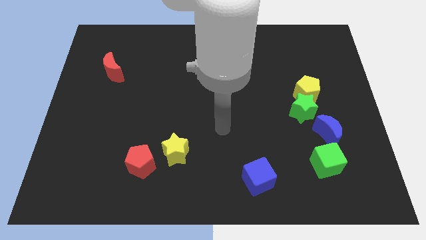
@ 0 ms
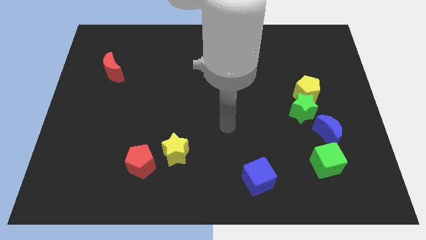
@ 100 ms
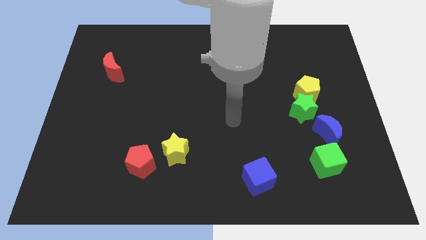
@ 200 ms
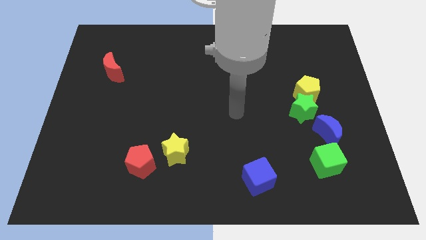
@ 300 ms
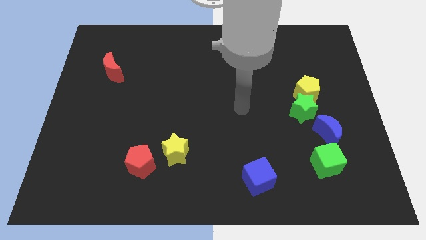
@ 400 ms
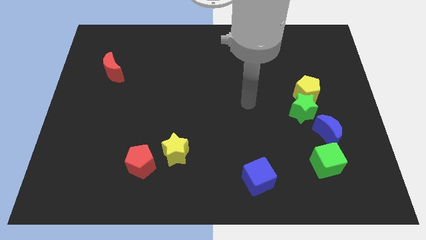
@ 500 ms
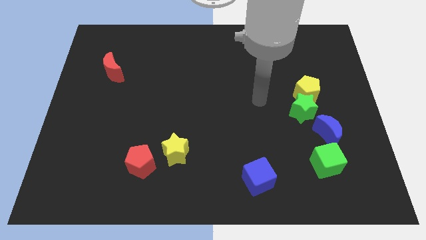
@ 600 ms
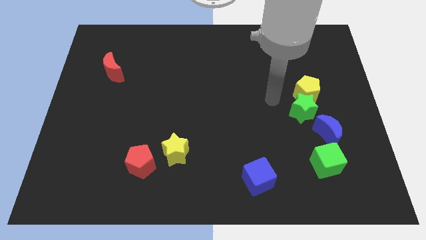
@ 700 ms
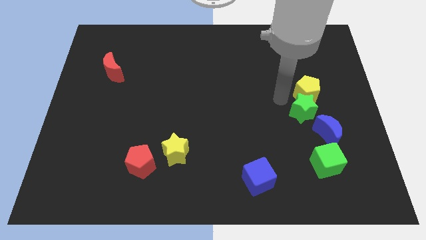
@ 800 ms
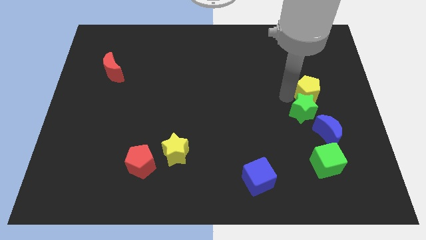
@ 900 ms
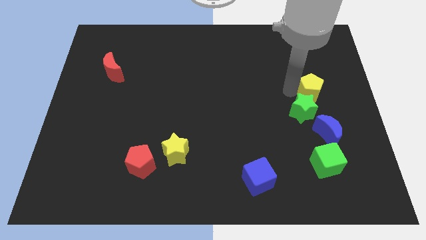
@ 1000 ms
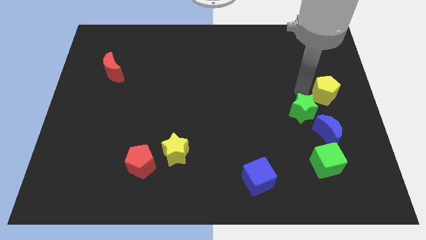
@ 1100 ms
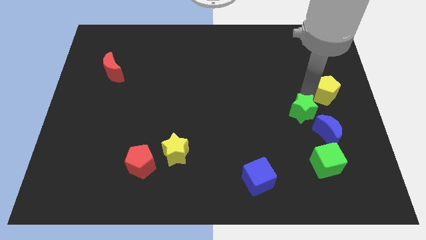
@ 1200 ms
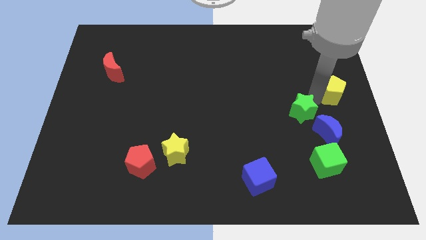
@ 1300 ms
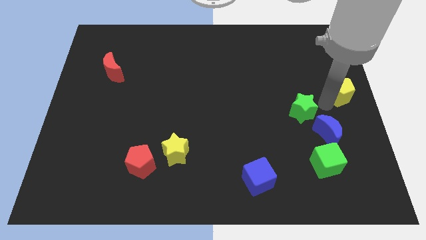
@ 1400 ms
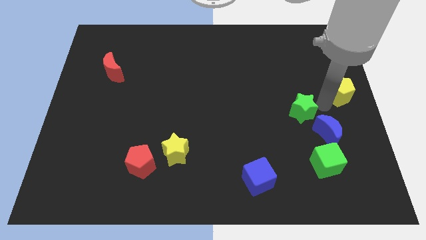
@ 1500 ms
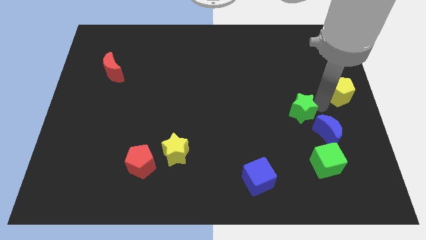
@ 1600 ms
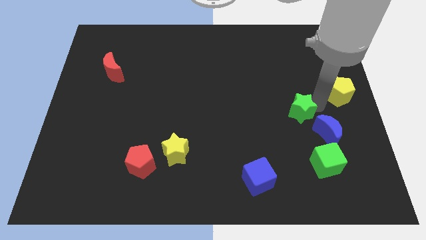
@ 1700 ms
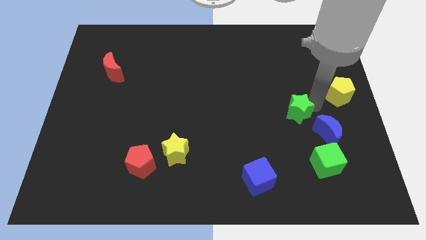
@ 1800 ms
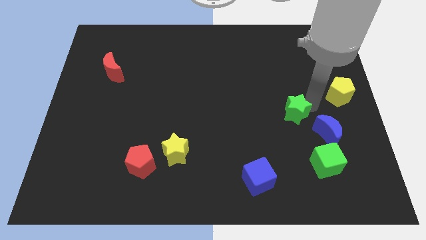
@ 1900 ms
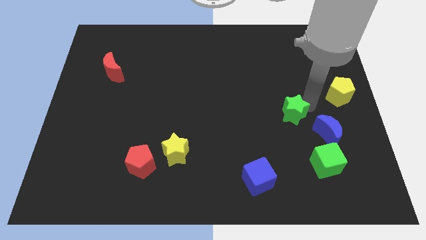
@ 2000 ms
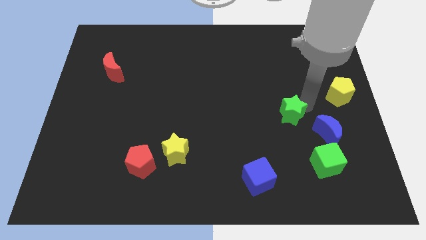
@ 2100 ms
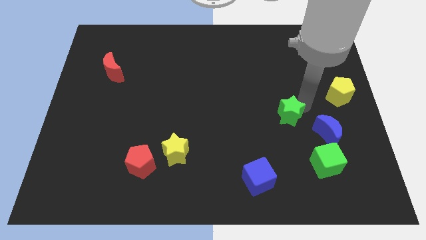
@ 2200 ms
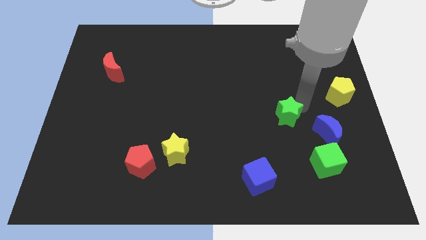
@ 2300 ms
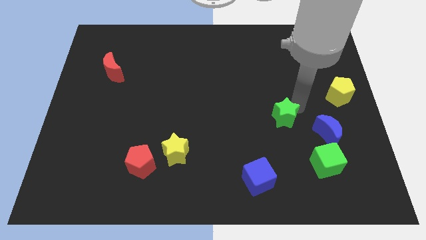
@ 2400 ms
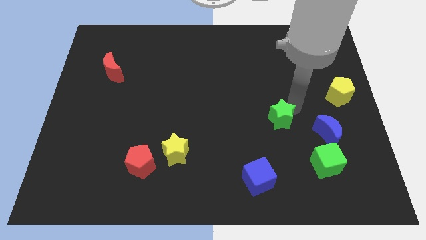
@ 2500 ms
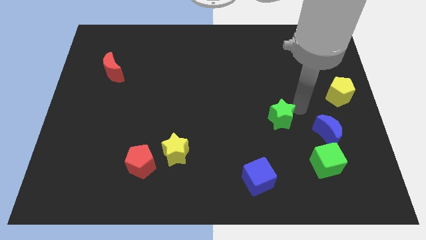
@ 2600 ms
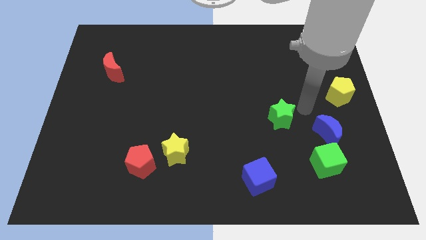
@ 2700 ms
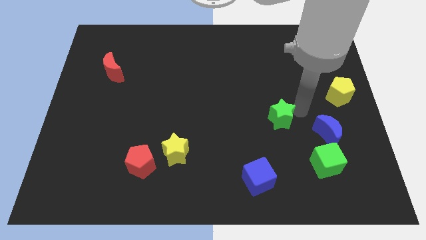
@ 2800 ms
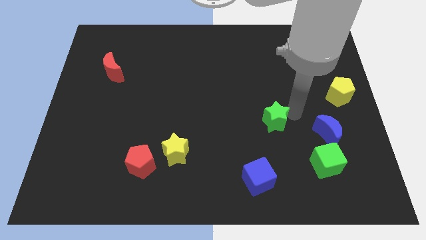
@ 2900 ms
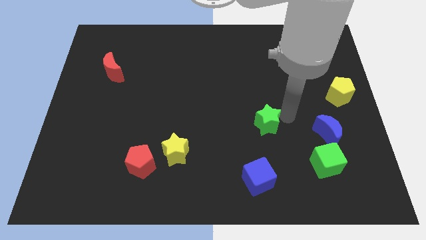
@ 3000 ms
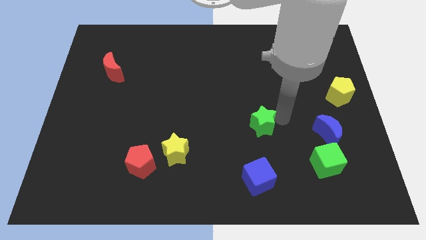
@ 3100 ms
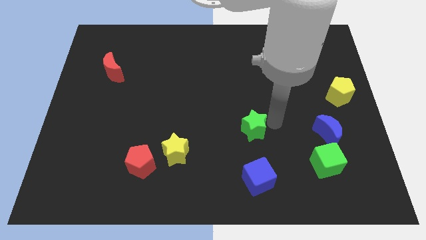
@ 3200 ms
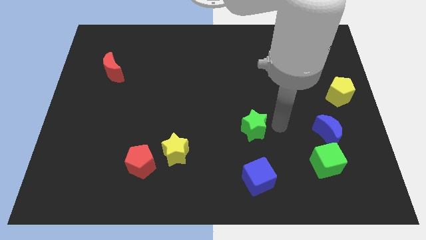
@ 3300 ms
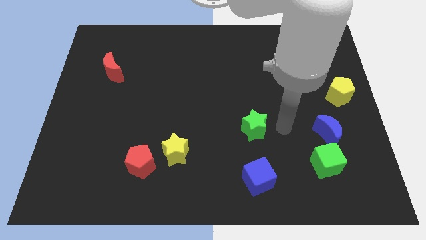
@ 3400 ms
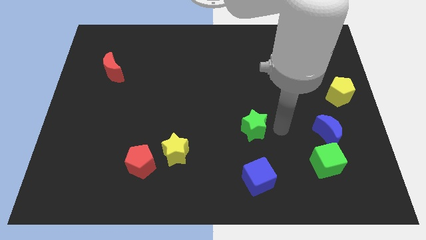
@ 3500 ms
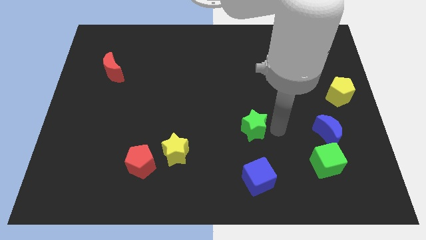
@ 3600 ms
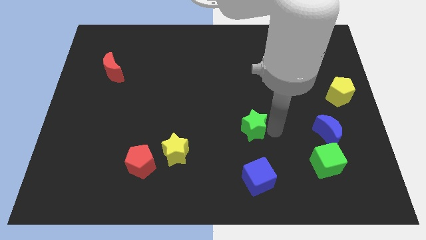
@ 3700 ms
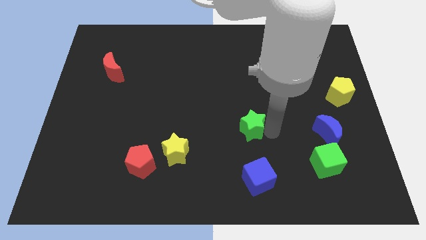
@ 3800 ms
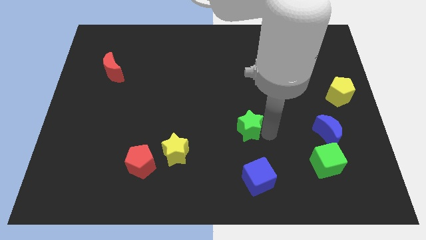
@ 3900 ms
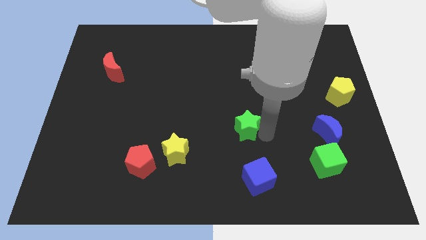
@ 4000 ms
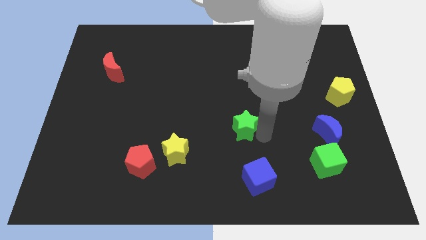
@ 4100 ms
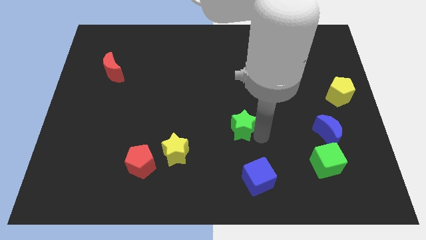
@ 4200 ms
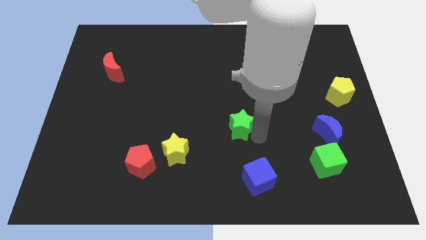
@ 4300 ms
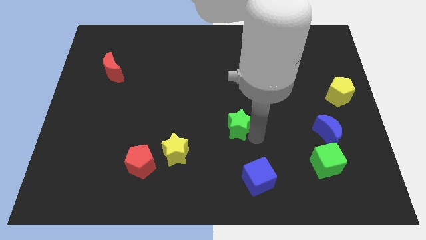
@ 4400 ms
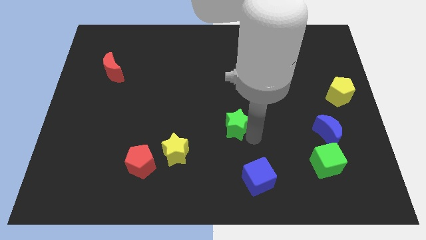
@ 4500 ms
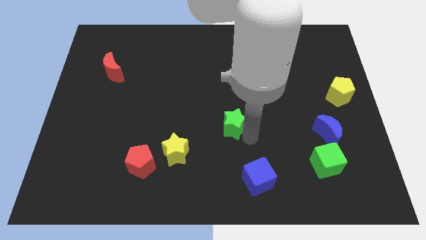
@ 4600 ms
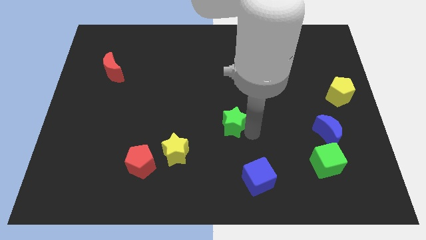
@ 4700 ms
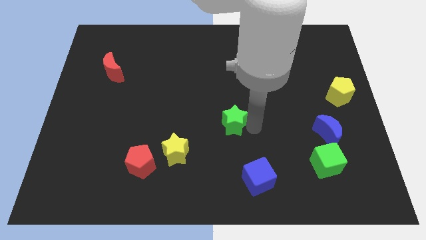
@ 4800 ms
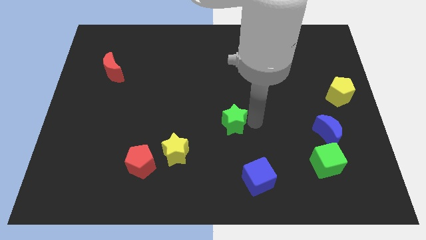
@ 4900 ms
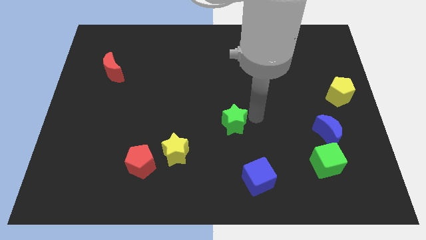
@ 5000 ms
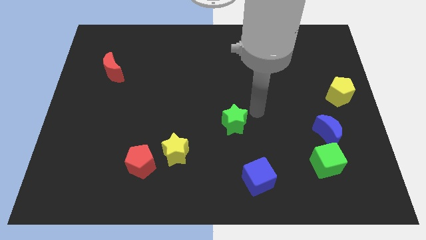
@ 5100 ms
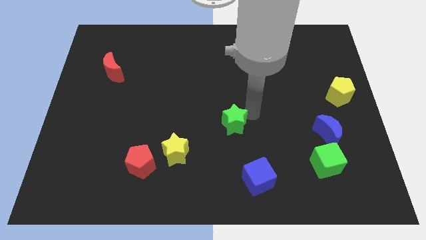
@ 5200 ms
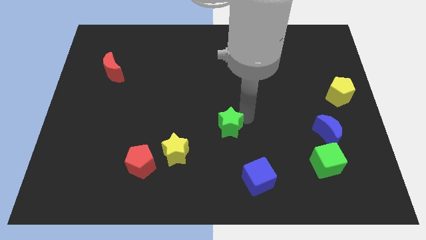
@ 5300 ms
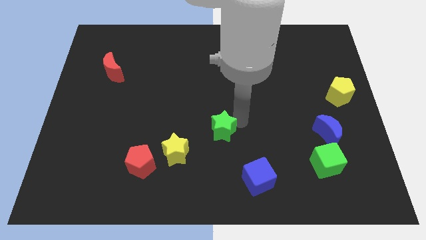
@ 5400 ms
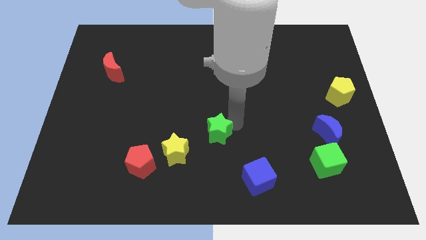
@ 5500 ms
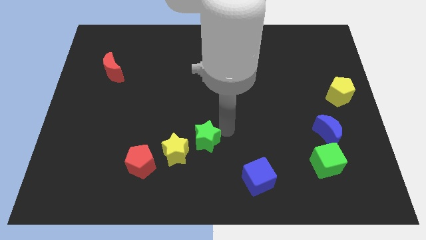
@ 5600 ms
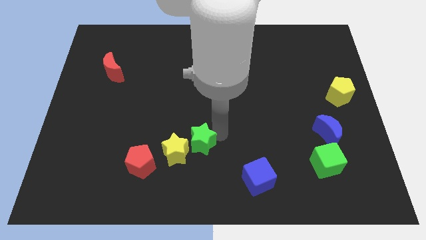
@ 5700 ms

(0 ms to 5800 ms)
push the green star to the yellow star

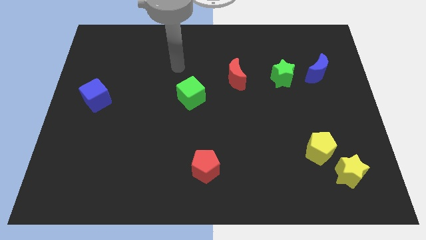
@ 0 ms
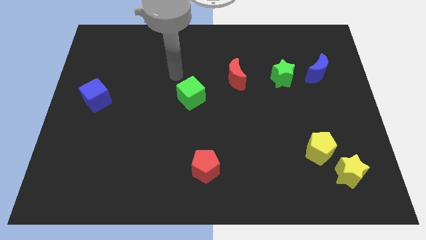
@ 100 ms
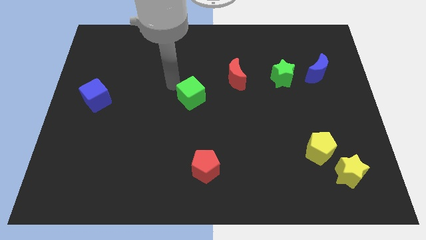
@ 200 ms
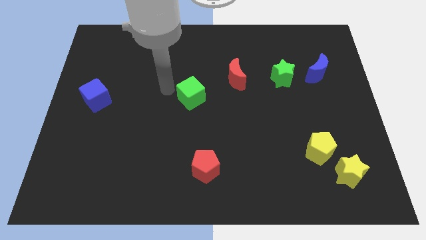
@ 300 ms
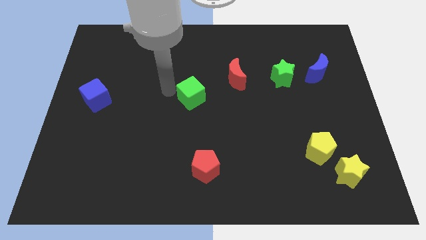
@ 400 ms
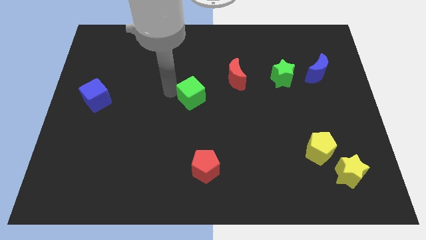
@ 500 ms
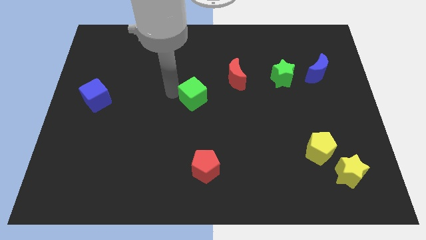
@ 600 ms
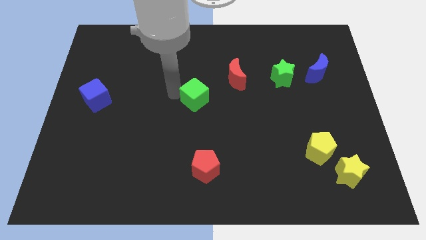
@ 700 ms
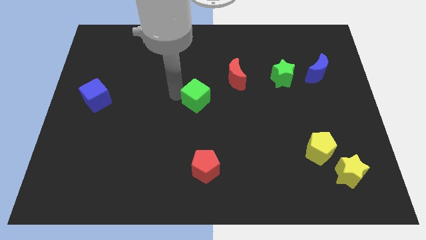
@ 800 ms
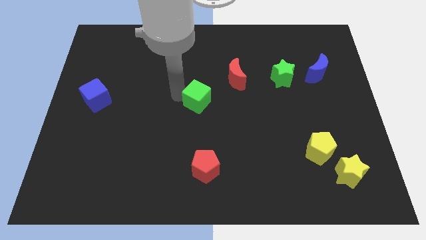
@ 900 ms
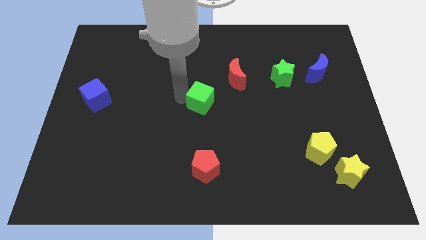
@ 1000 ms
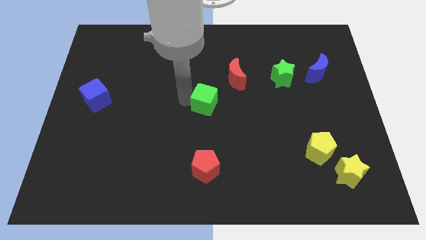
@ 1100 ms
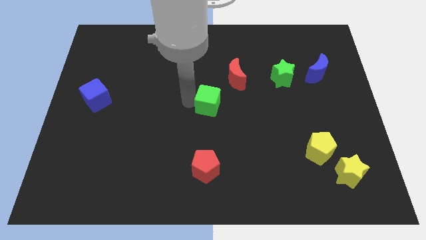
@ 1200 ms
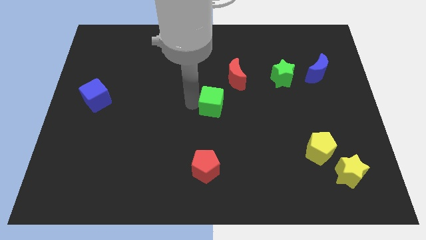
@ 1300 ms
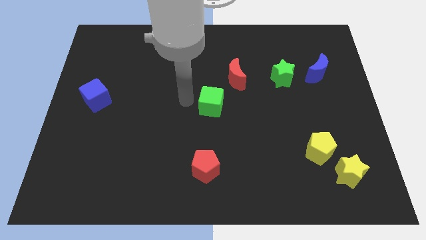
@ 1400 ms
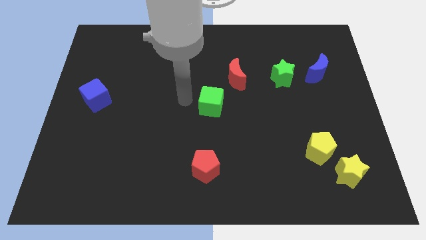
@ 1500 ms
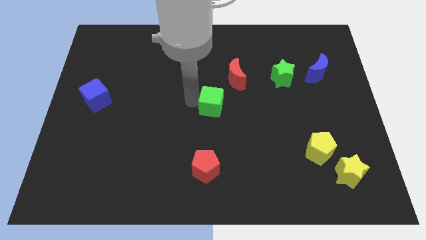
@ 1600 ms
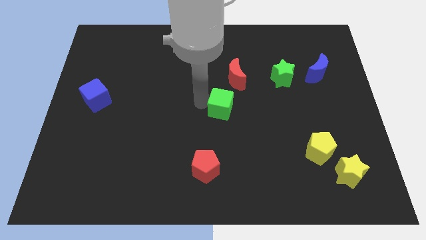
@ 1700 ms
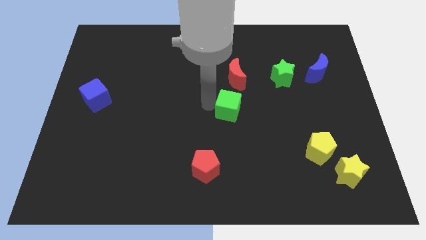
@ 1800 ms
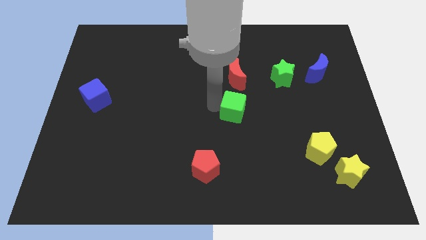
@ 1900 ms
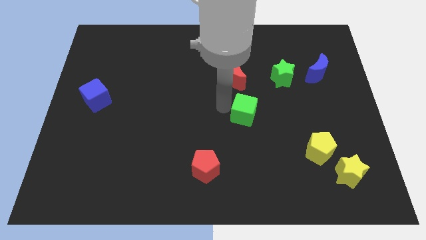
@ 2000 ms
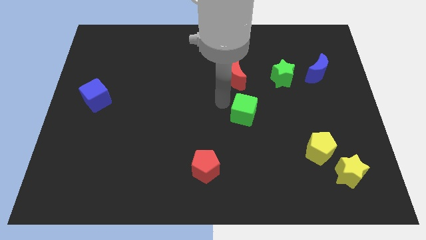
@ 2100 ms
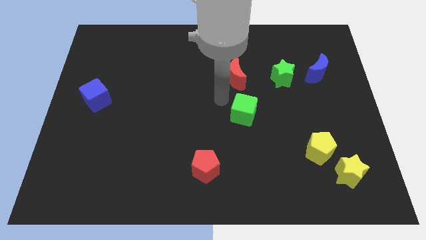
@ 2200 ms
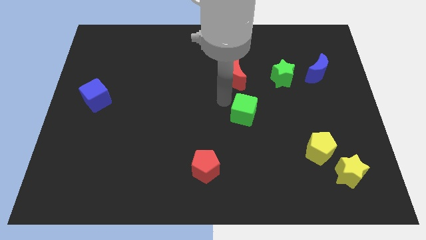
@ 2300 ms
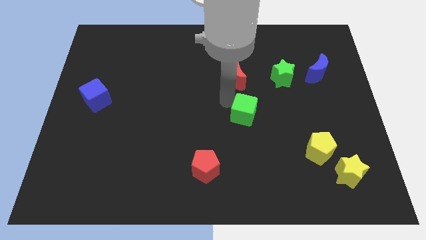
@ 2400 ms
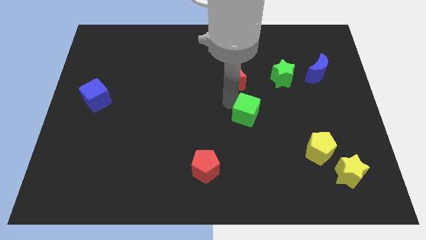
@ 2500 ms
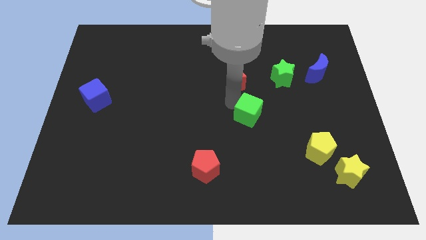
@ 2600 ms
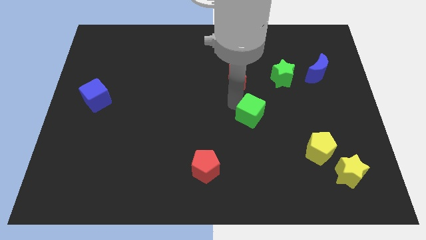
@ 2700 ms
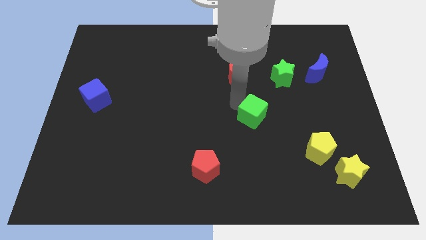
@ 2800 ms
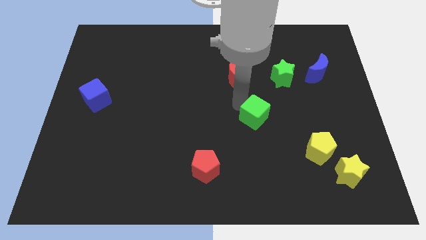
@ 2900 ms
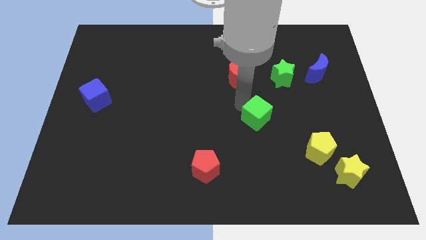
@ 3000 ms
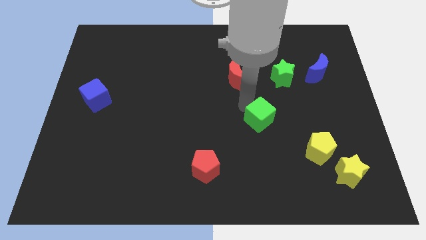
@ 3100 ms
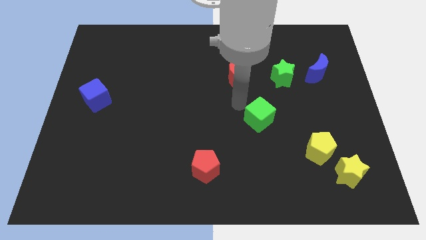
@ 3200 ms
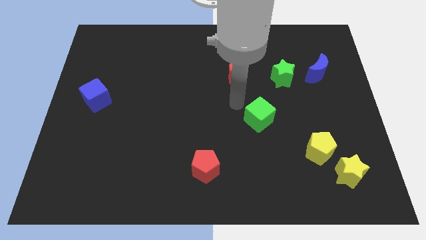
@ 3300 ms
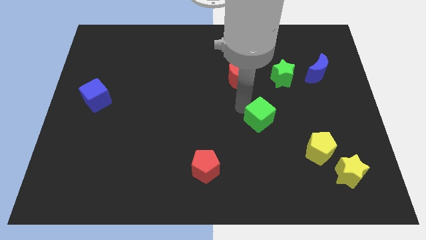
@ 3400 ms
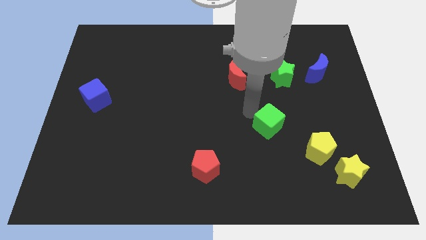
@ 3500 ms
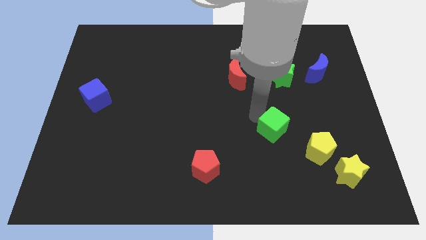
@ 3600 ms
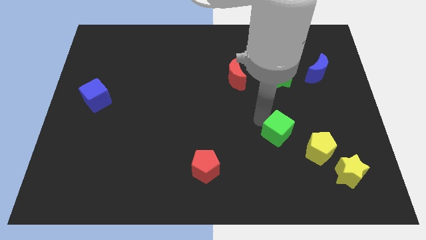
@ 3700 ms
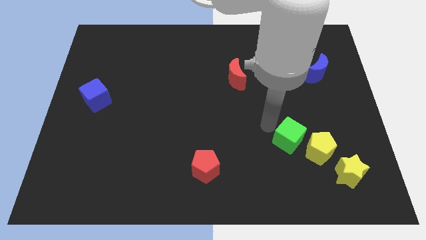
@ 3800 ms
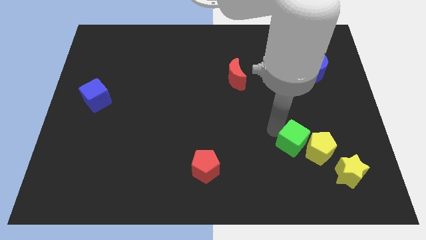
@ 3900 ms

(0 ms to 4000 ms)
slide the green cube towards the yellow pentagon
